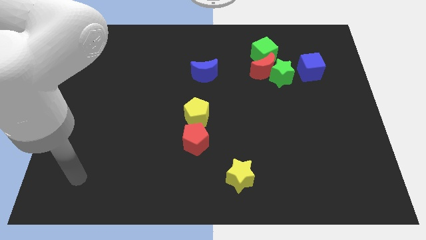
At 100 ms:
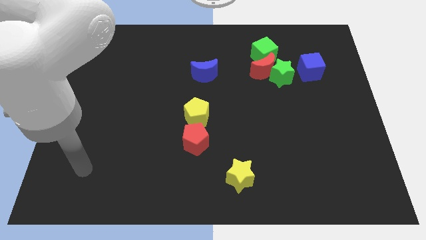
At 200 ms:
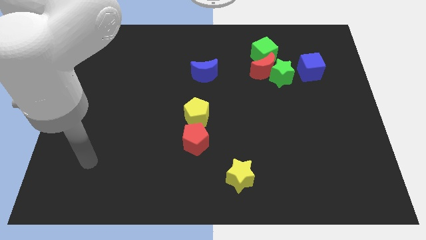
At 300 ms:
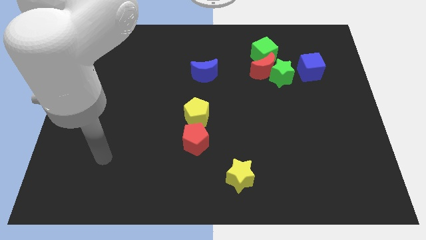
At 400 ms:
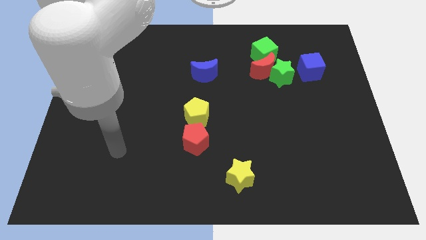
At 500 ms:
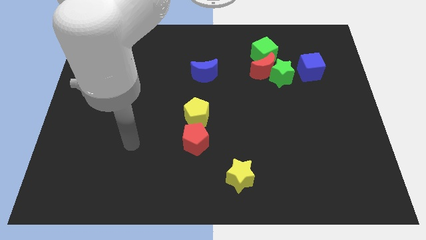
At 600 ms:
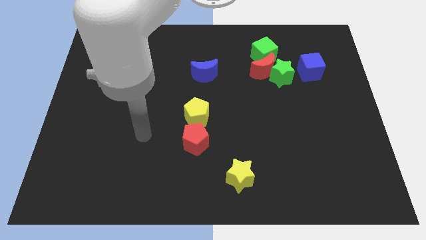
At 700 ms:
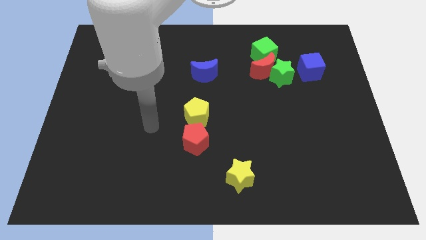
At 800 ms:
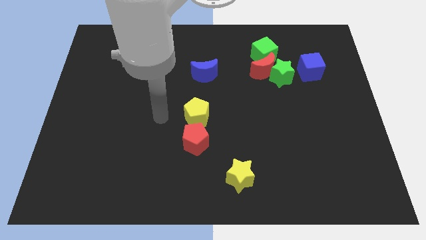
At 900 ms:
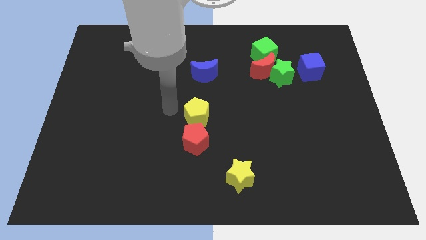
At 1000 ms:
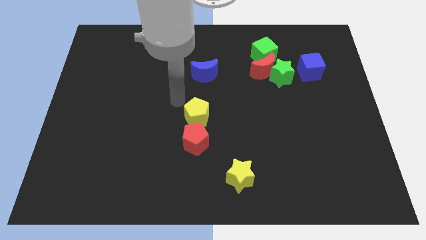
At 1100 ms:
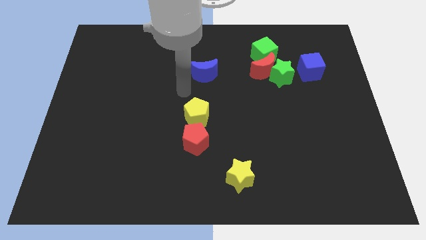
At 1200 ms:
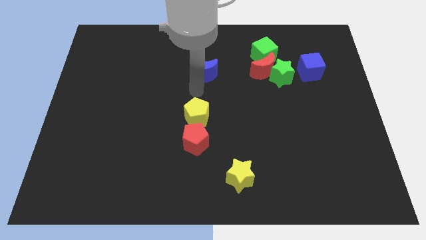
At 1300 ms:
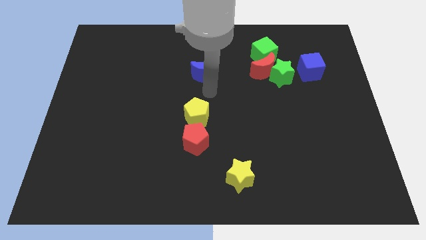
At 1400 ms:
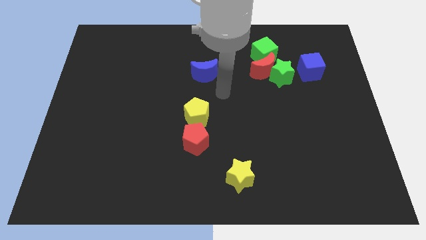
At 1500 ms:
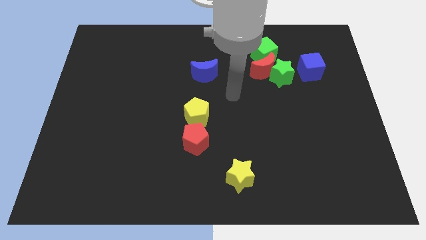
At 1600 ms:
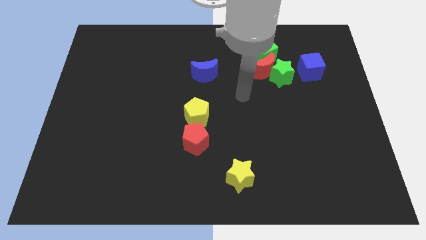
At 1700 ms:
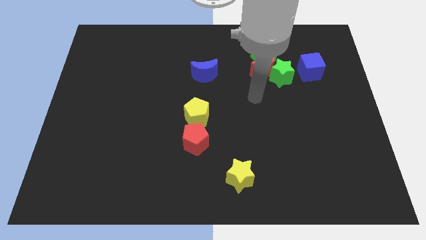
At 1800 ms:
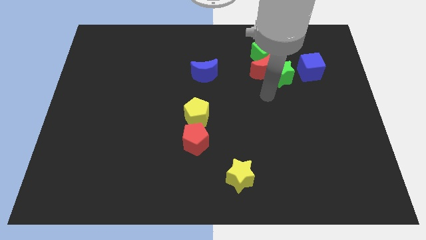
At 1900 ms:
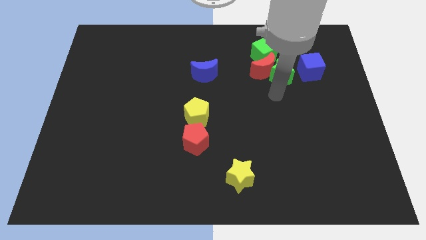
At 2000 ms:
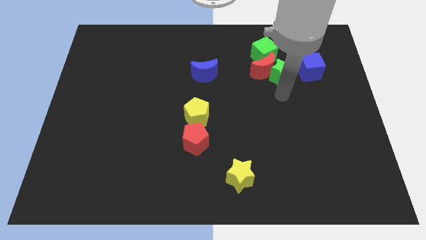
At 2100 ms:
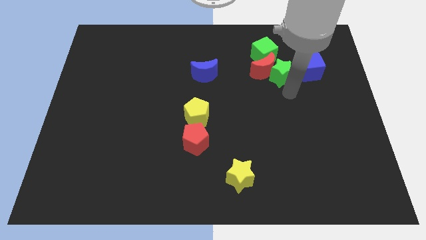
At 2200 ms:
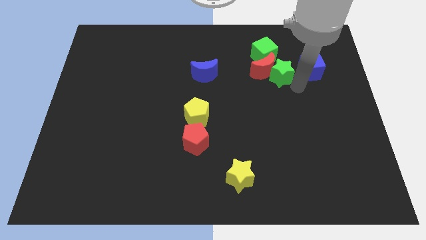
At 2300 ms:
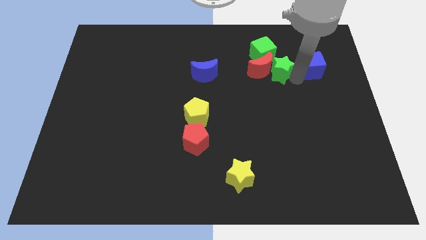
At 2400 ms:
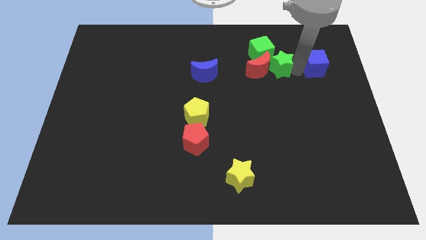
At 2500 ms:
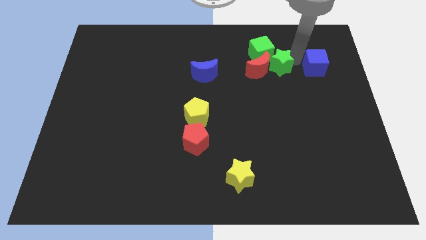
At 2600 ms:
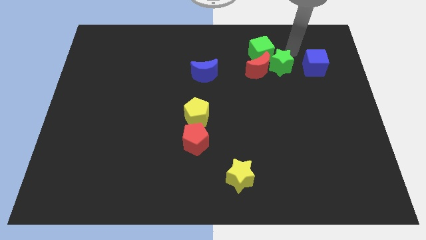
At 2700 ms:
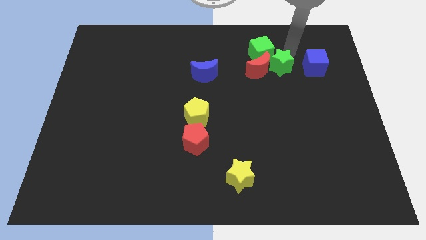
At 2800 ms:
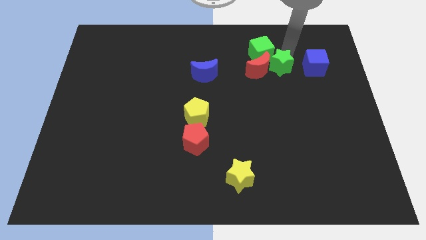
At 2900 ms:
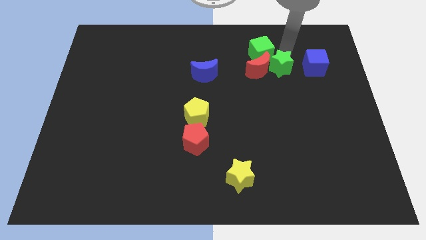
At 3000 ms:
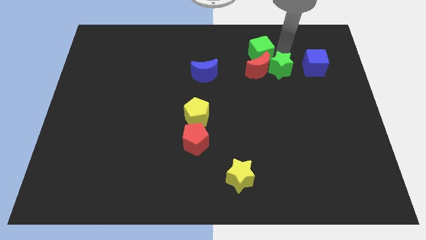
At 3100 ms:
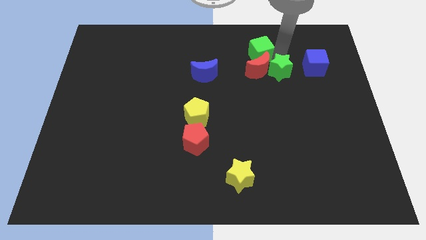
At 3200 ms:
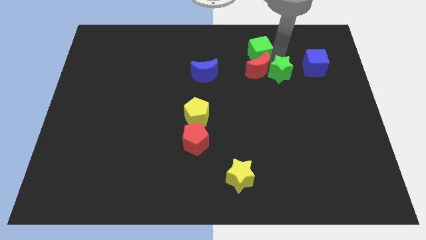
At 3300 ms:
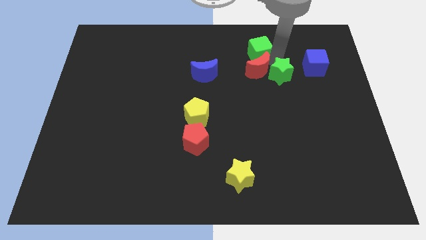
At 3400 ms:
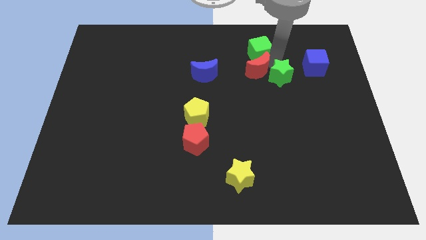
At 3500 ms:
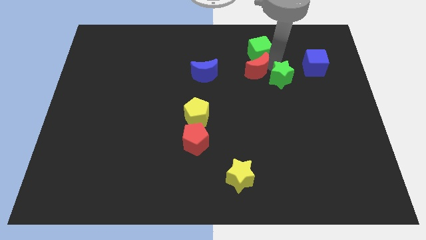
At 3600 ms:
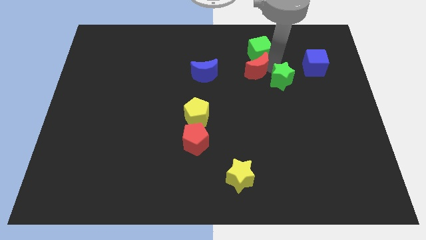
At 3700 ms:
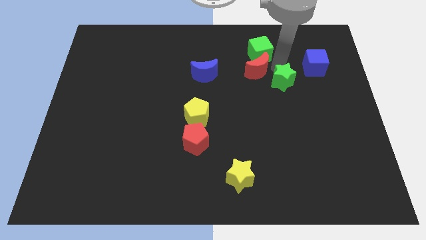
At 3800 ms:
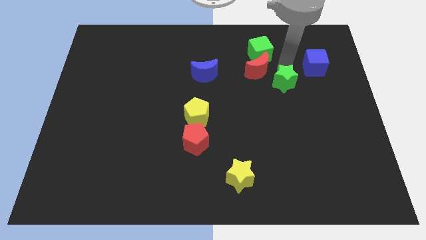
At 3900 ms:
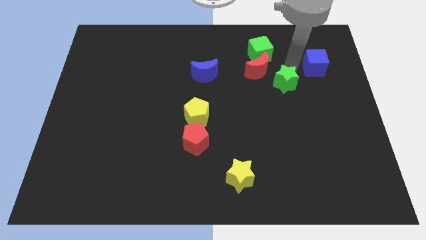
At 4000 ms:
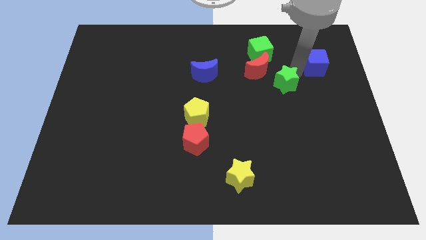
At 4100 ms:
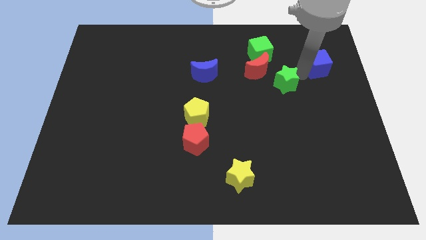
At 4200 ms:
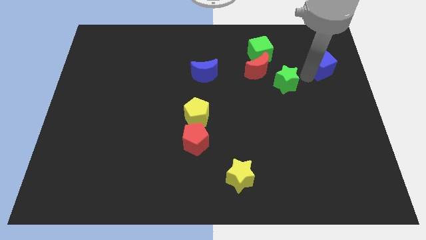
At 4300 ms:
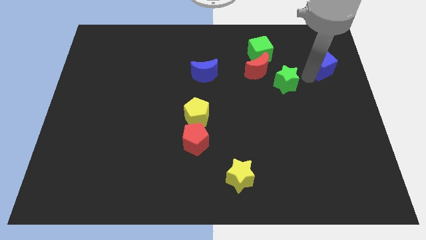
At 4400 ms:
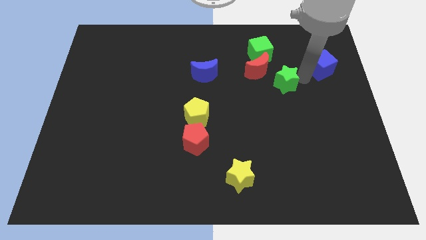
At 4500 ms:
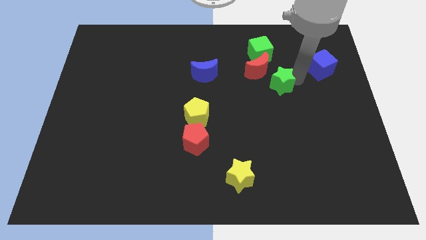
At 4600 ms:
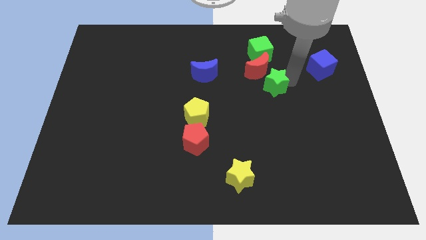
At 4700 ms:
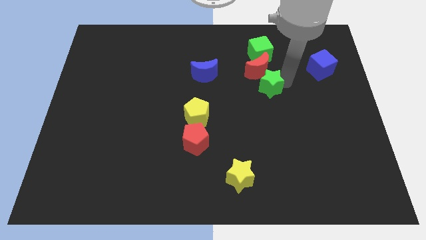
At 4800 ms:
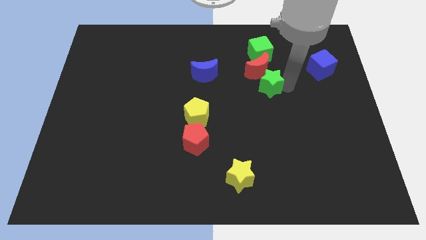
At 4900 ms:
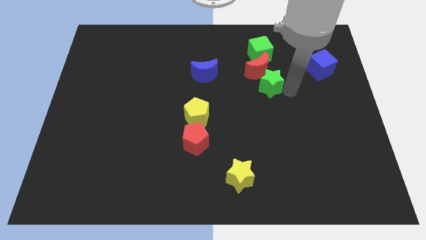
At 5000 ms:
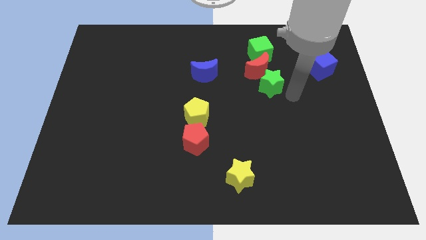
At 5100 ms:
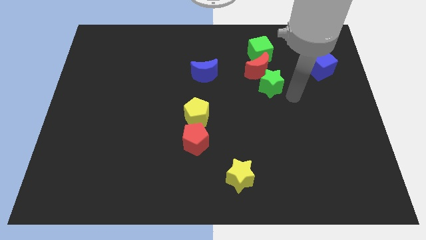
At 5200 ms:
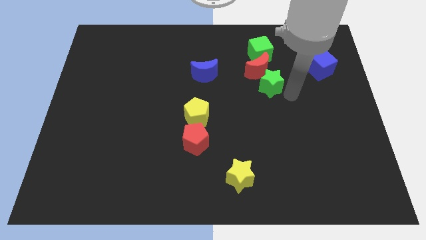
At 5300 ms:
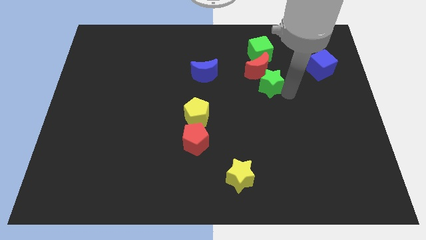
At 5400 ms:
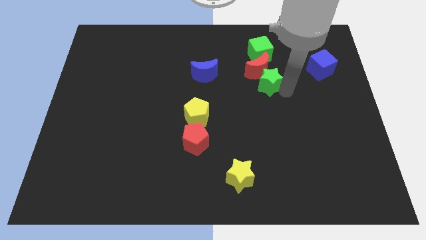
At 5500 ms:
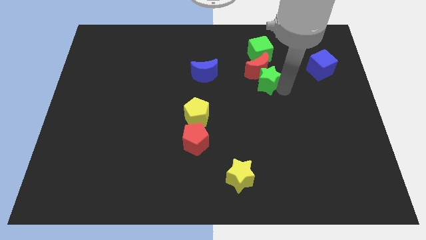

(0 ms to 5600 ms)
move the green star just right of the blue moon

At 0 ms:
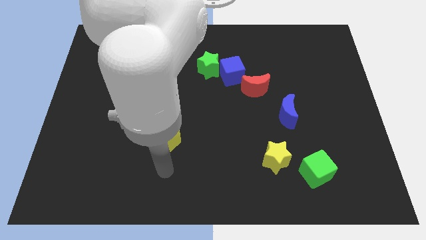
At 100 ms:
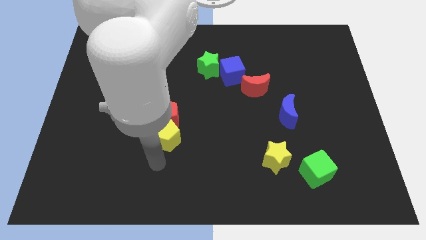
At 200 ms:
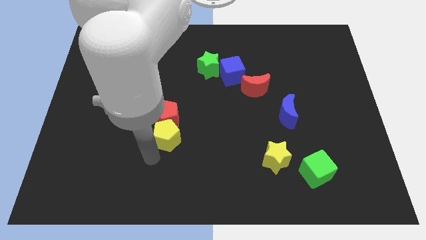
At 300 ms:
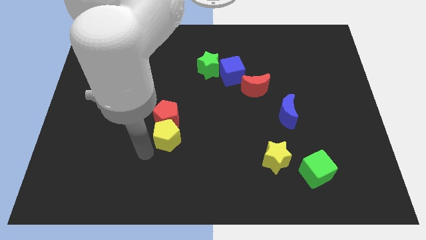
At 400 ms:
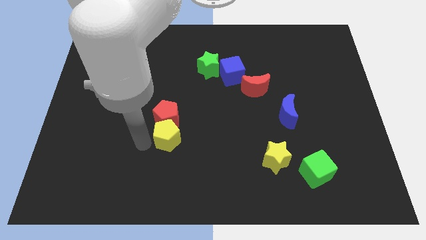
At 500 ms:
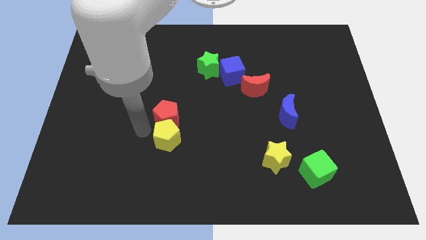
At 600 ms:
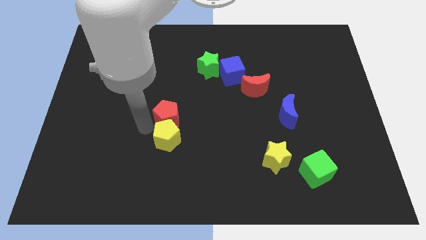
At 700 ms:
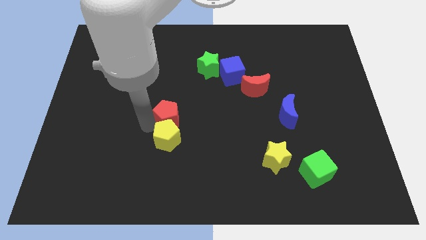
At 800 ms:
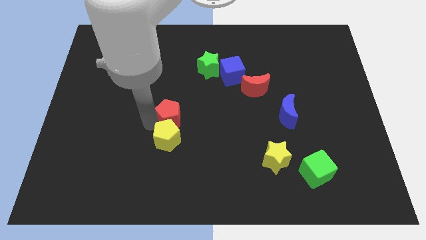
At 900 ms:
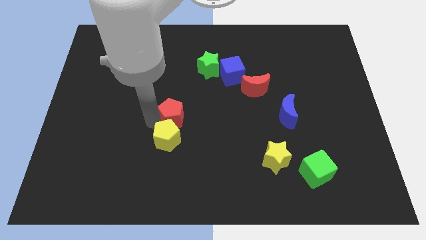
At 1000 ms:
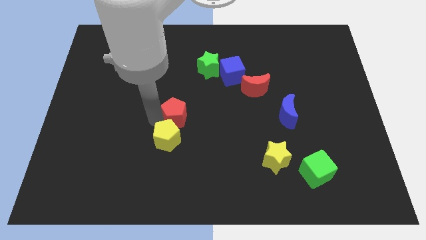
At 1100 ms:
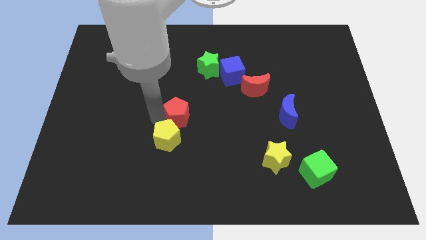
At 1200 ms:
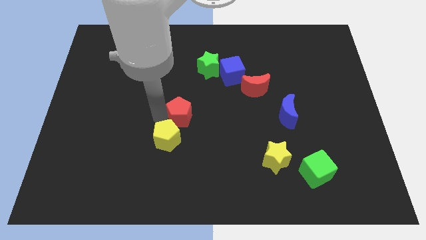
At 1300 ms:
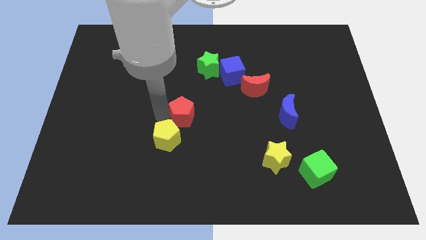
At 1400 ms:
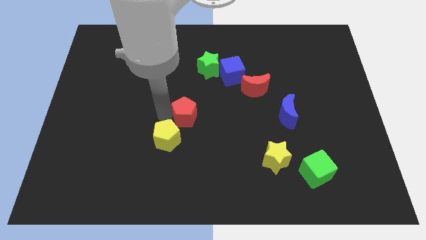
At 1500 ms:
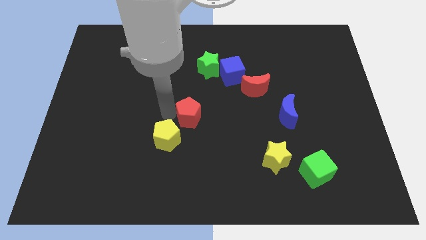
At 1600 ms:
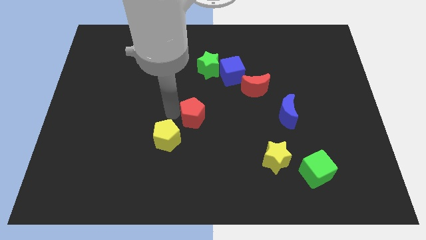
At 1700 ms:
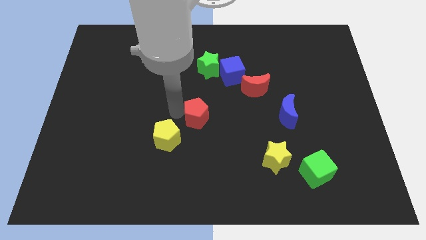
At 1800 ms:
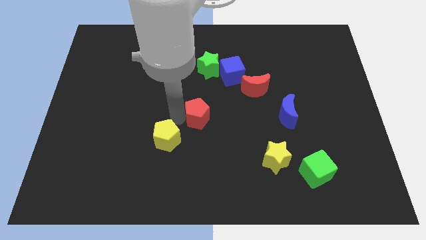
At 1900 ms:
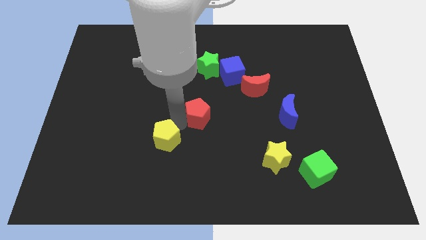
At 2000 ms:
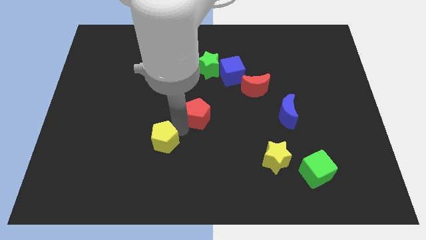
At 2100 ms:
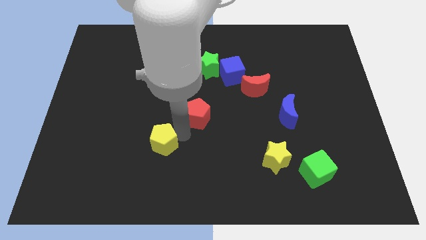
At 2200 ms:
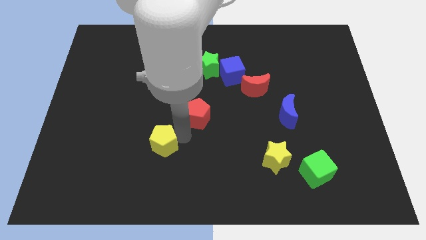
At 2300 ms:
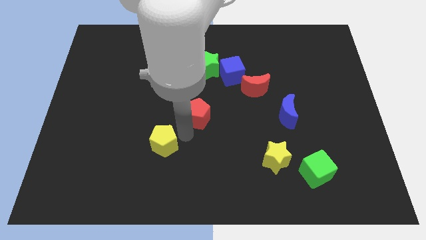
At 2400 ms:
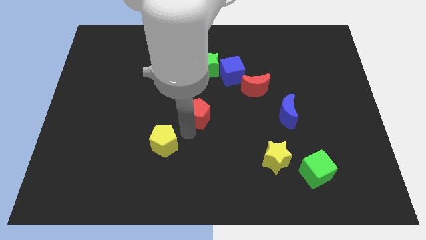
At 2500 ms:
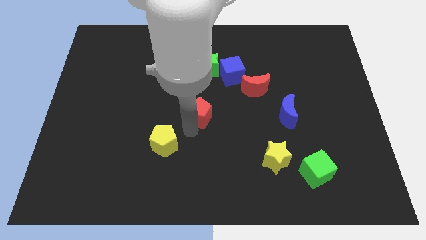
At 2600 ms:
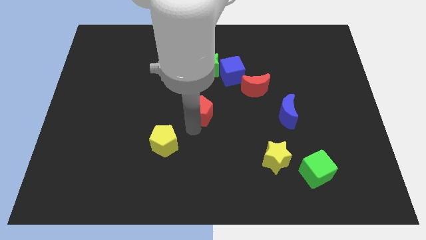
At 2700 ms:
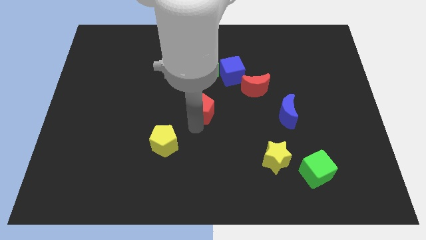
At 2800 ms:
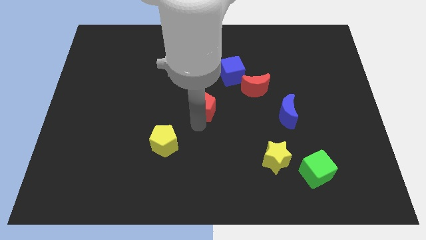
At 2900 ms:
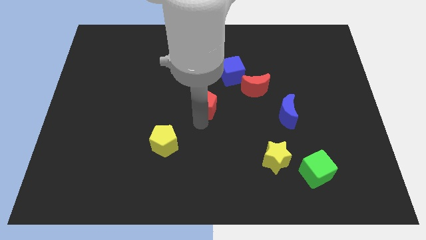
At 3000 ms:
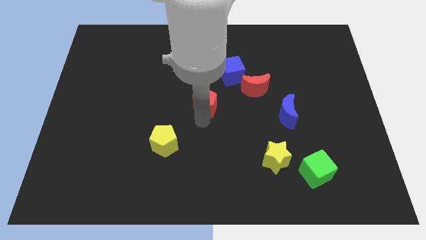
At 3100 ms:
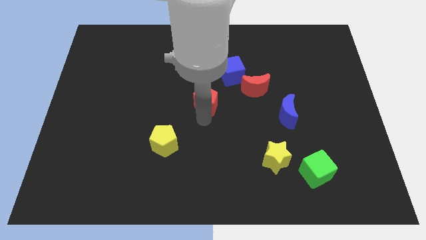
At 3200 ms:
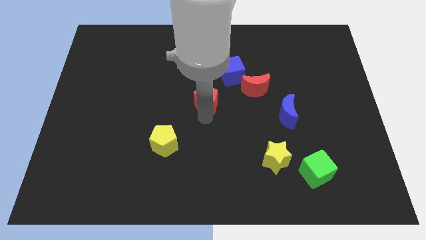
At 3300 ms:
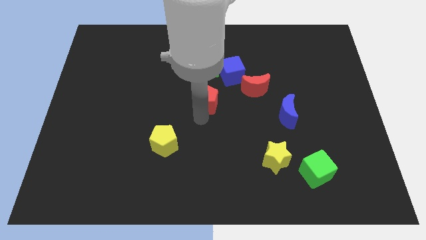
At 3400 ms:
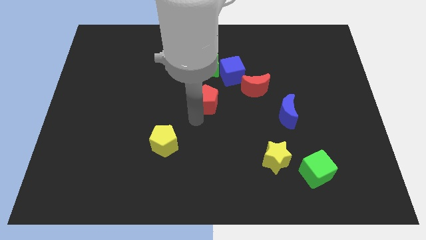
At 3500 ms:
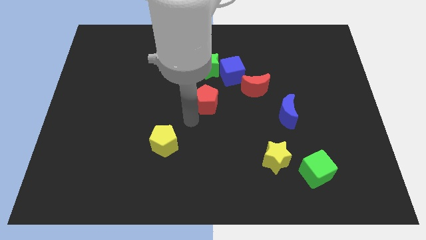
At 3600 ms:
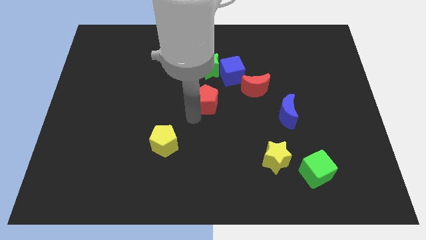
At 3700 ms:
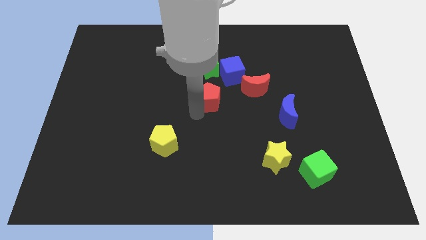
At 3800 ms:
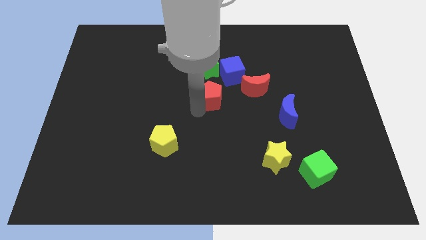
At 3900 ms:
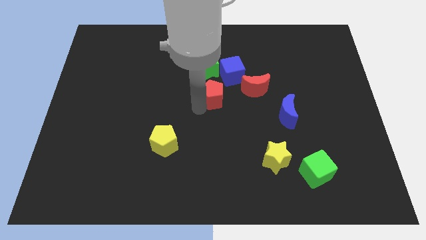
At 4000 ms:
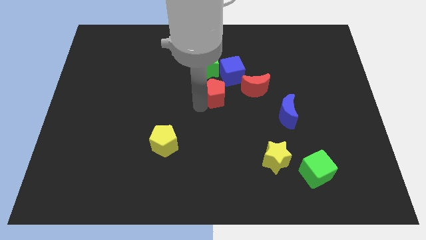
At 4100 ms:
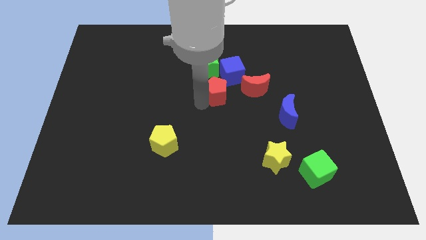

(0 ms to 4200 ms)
push the red pentagon to the bottom right side of the green star
